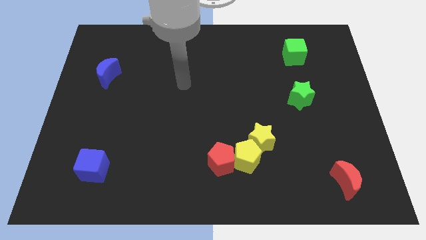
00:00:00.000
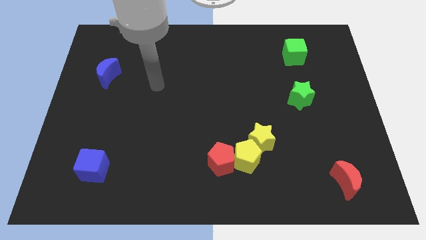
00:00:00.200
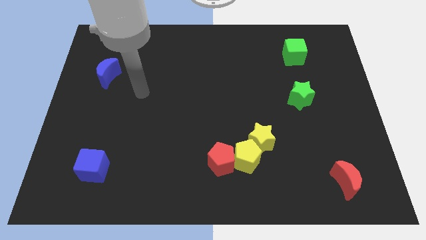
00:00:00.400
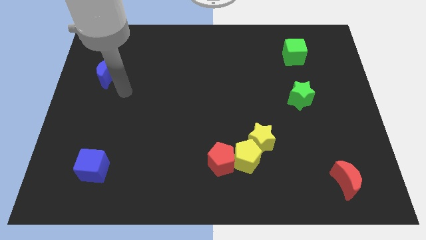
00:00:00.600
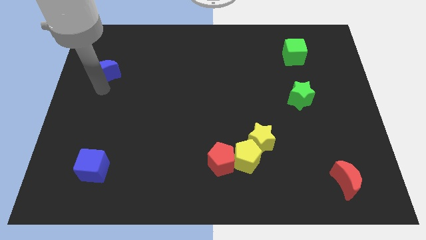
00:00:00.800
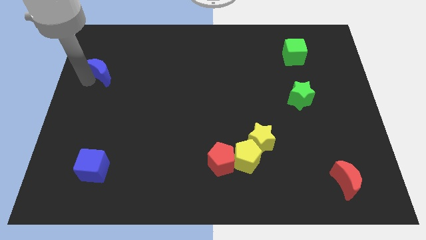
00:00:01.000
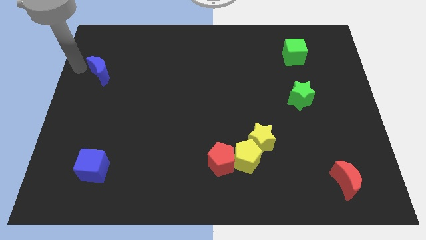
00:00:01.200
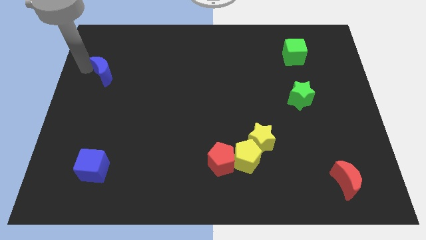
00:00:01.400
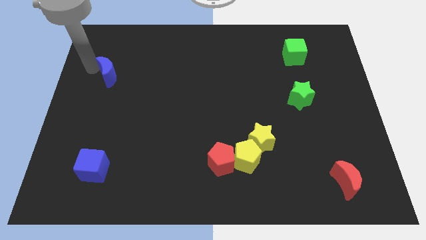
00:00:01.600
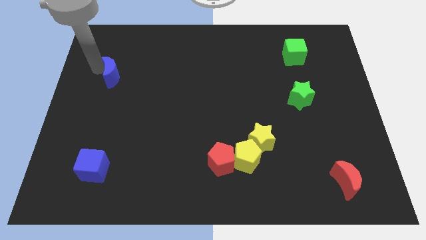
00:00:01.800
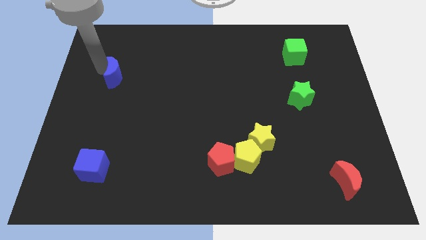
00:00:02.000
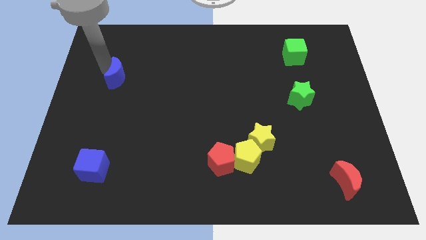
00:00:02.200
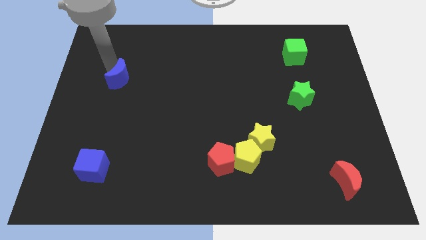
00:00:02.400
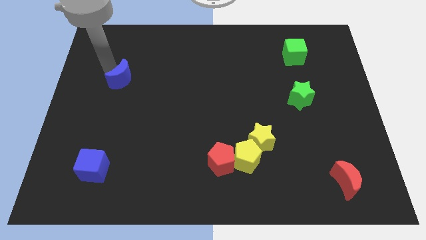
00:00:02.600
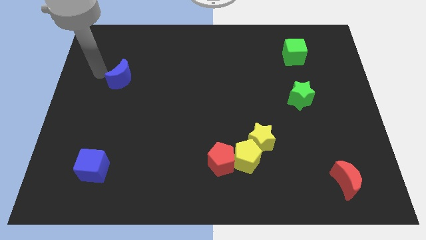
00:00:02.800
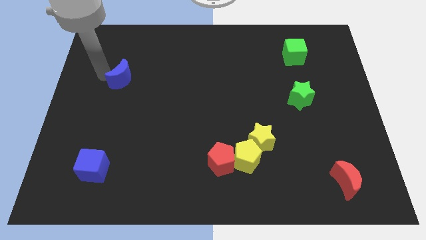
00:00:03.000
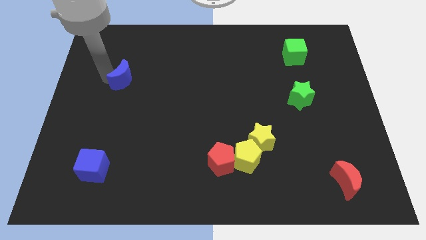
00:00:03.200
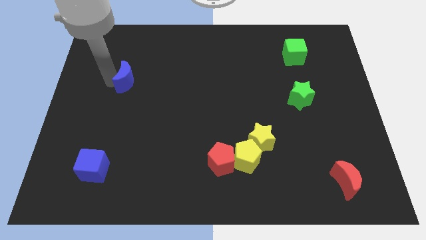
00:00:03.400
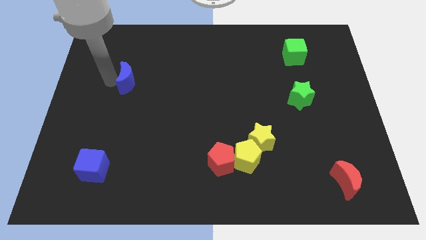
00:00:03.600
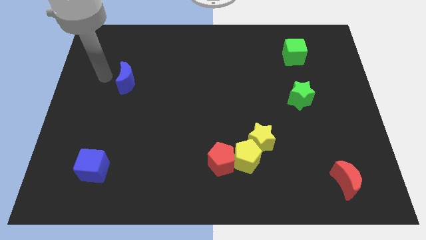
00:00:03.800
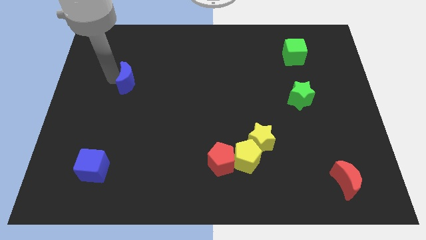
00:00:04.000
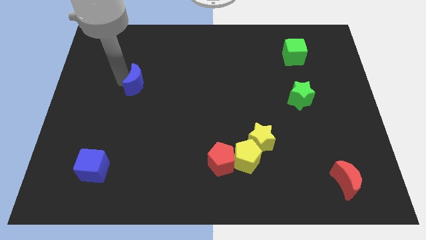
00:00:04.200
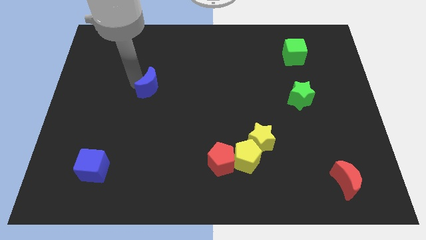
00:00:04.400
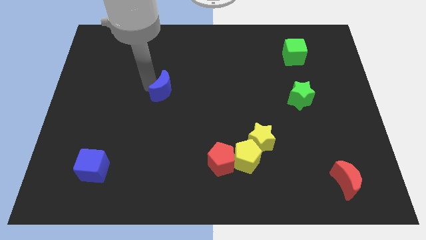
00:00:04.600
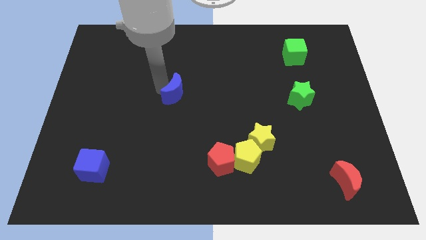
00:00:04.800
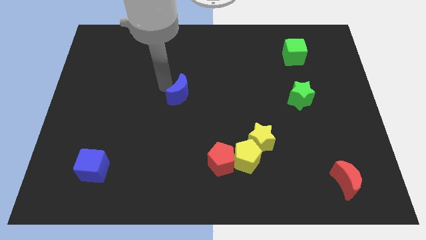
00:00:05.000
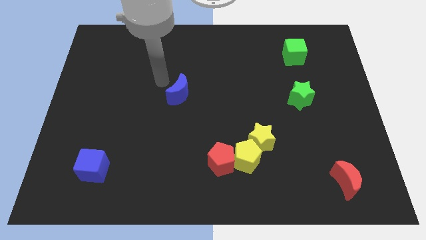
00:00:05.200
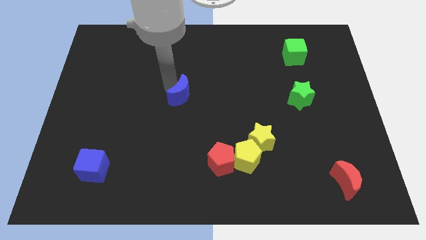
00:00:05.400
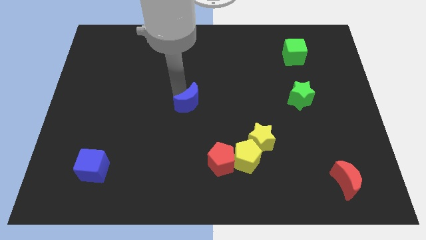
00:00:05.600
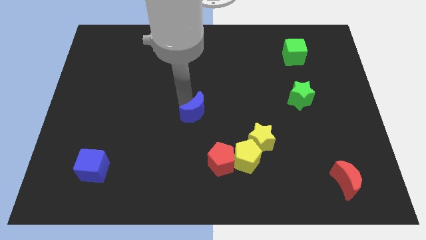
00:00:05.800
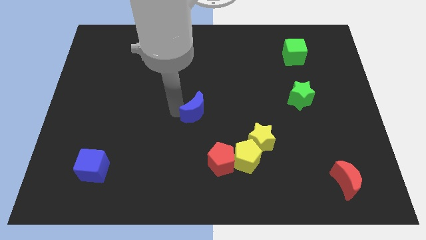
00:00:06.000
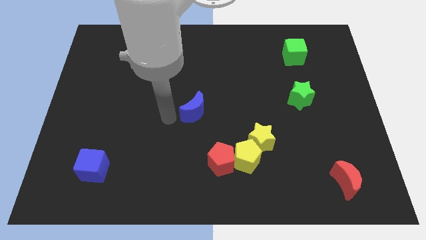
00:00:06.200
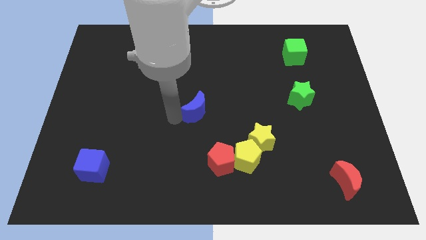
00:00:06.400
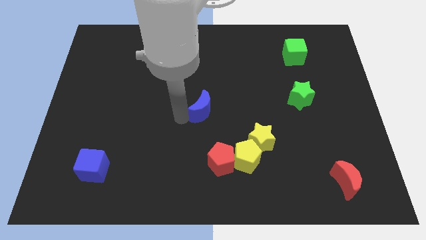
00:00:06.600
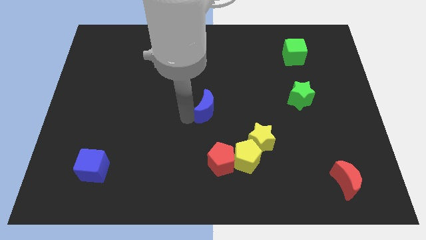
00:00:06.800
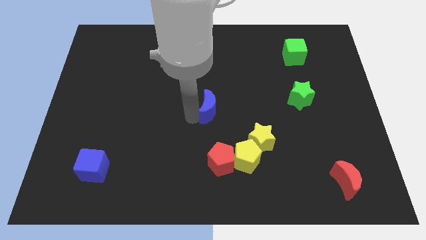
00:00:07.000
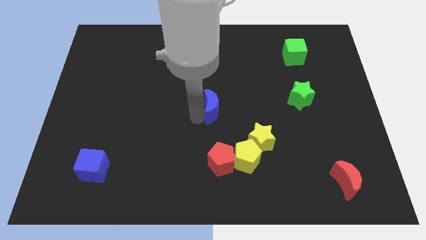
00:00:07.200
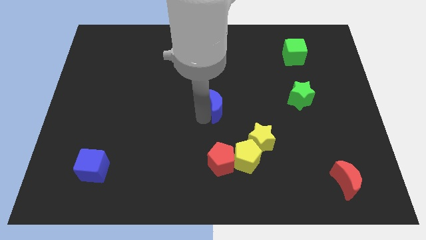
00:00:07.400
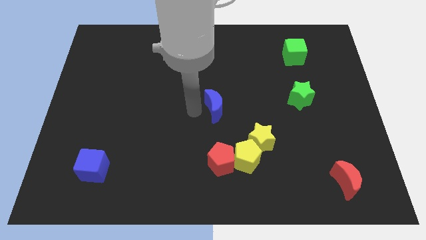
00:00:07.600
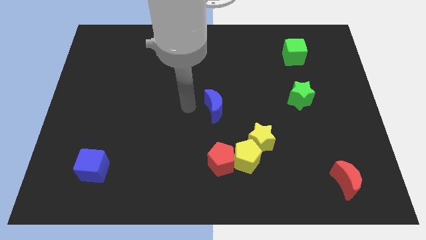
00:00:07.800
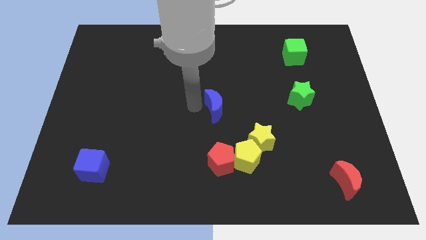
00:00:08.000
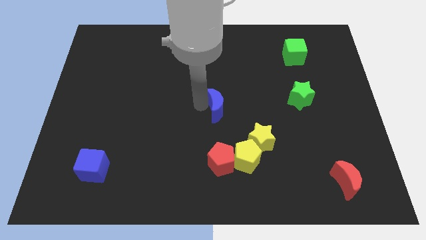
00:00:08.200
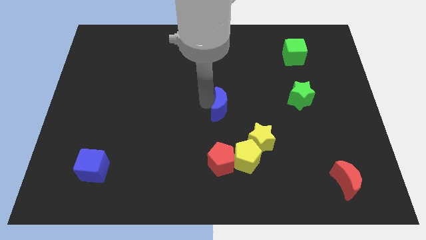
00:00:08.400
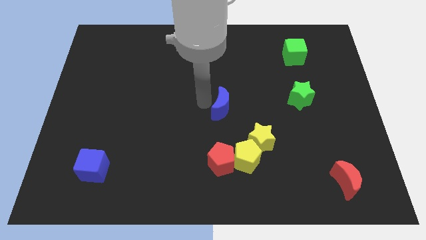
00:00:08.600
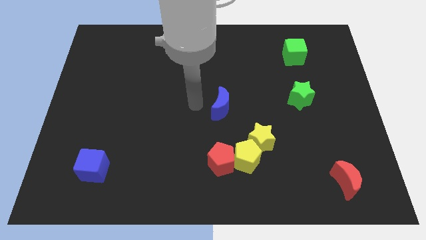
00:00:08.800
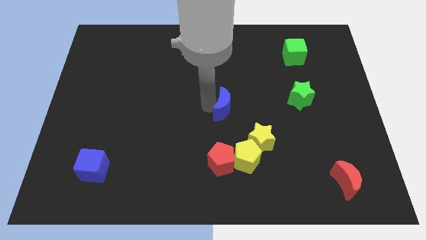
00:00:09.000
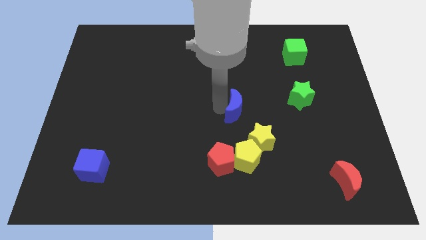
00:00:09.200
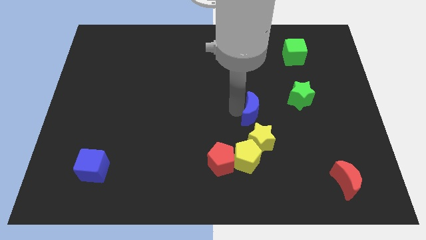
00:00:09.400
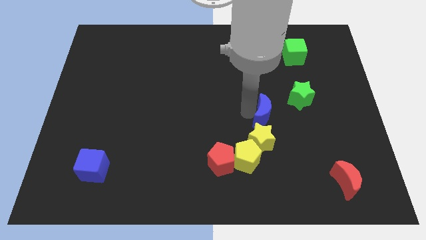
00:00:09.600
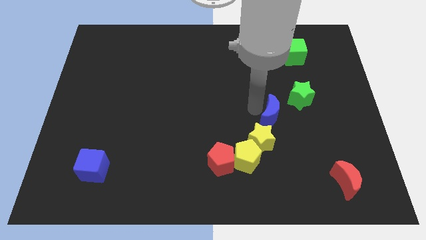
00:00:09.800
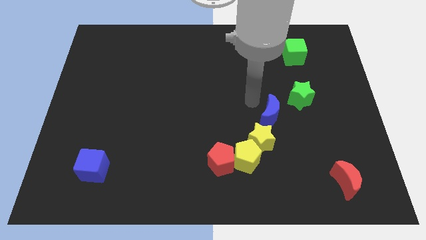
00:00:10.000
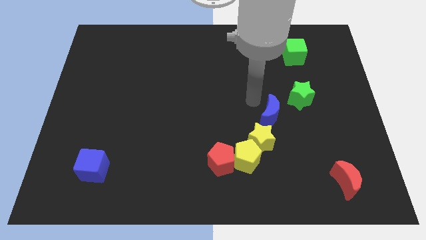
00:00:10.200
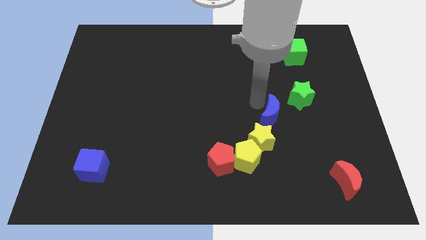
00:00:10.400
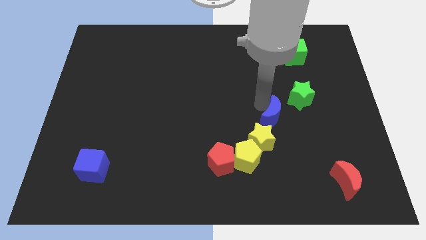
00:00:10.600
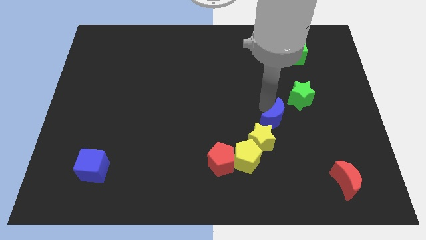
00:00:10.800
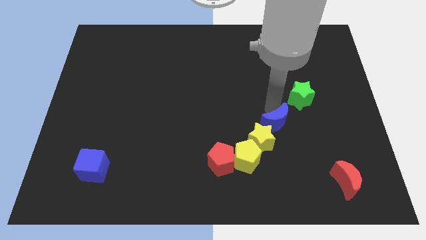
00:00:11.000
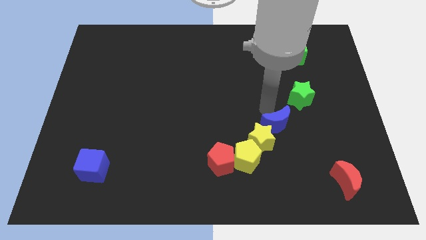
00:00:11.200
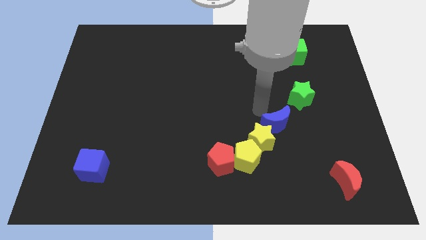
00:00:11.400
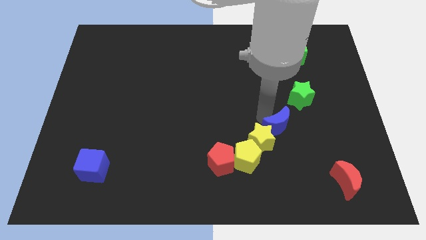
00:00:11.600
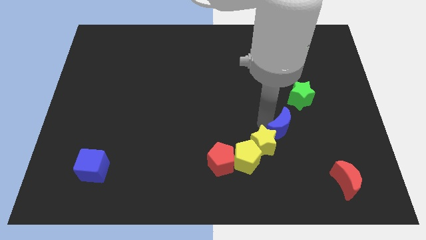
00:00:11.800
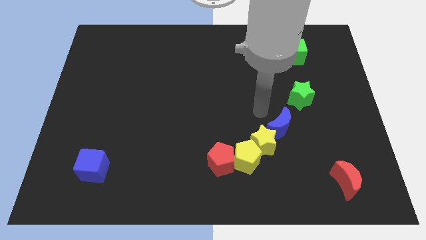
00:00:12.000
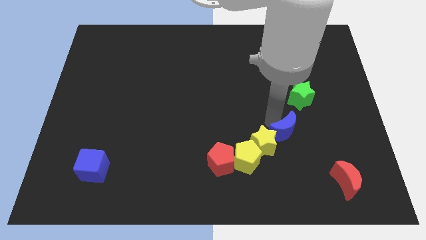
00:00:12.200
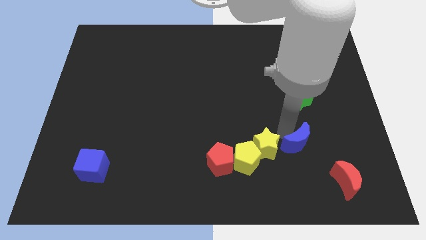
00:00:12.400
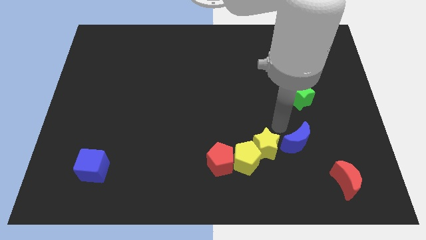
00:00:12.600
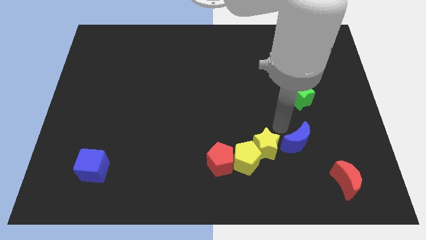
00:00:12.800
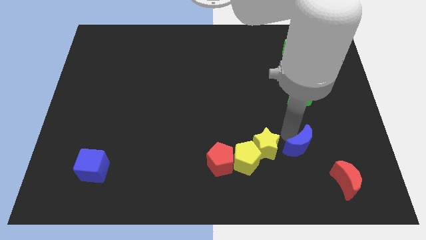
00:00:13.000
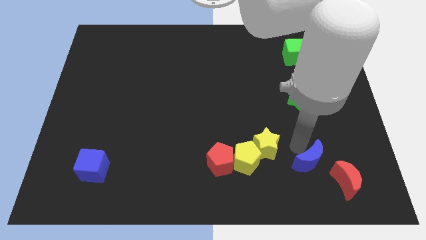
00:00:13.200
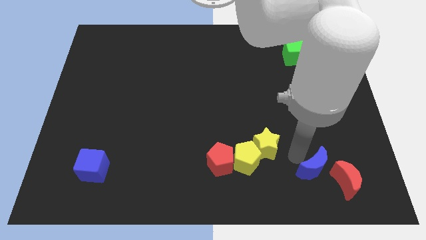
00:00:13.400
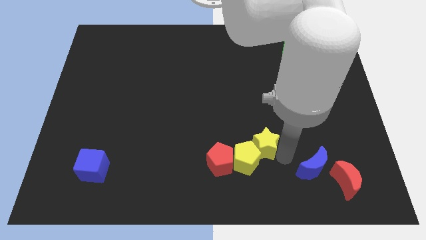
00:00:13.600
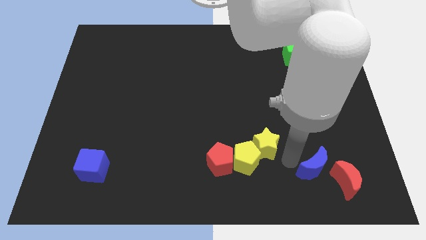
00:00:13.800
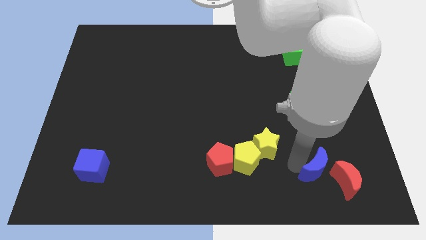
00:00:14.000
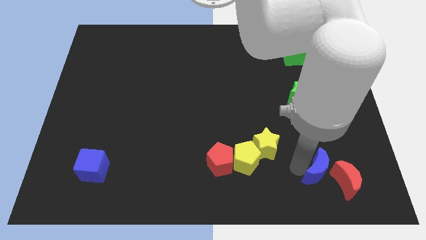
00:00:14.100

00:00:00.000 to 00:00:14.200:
move the blue moon towards the red moon

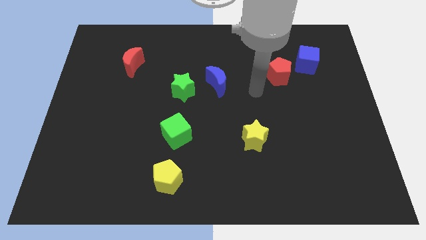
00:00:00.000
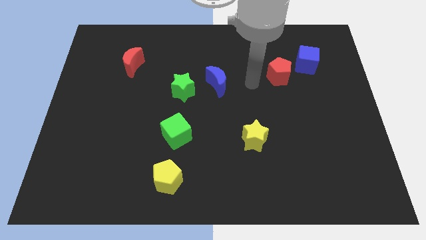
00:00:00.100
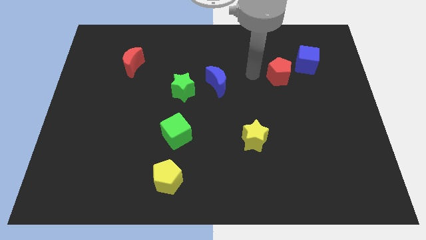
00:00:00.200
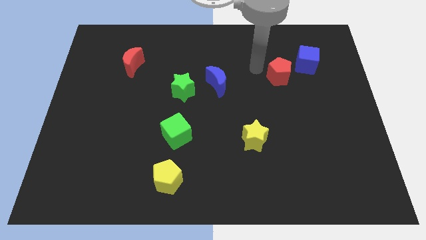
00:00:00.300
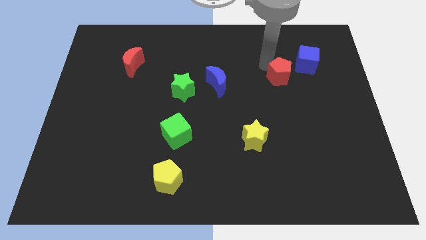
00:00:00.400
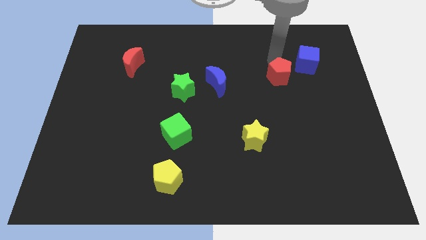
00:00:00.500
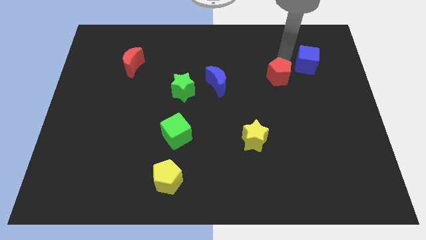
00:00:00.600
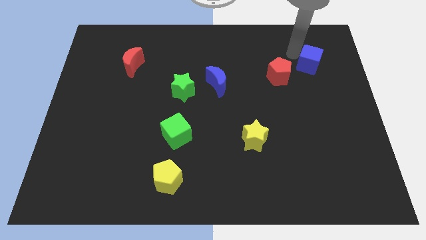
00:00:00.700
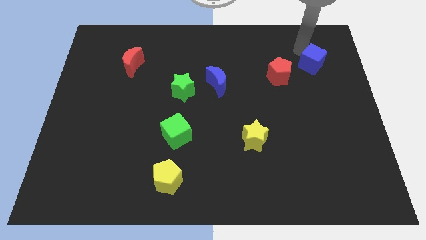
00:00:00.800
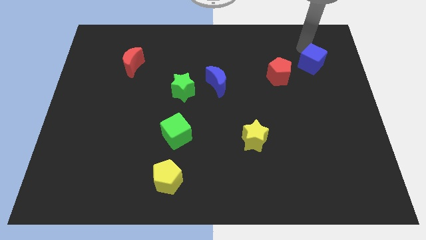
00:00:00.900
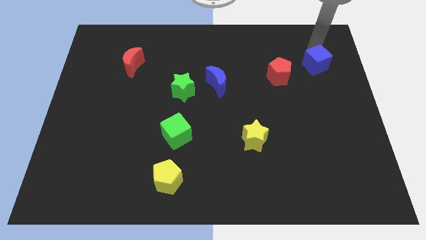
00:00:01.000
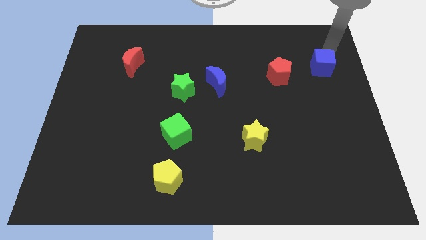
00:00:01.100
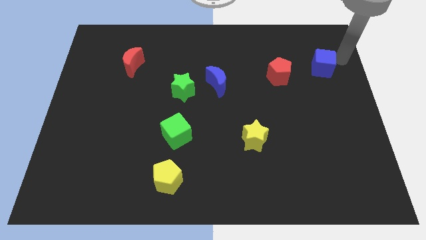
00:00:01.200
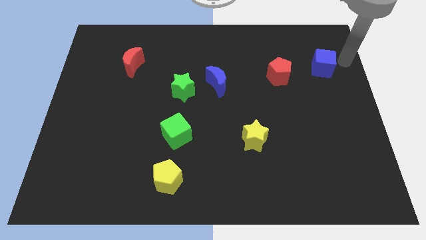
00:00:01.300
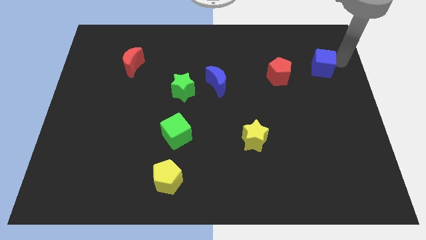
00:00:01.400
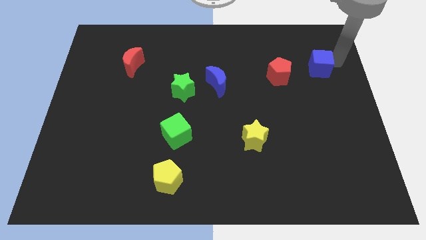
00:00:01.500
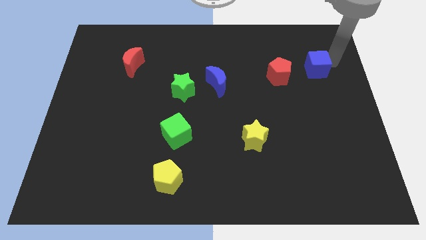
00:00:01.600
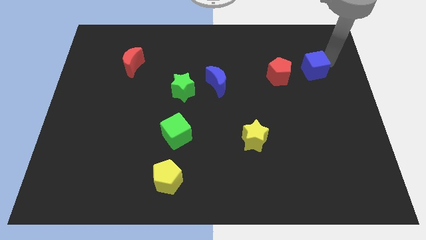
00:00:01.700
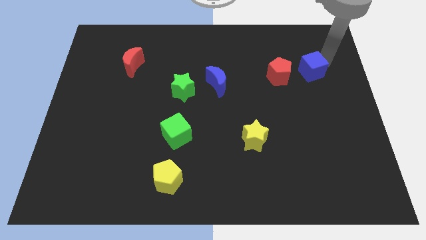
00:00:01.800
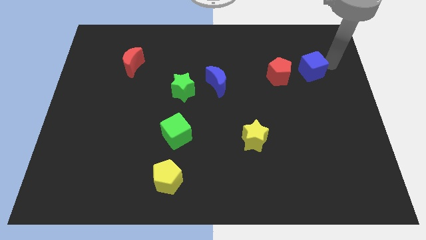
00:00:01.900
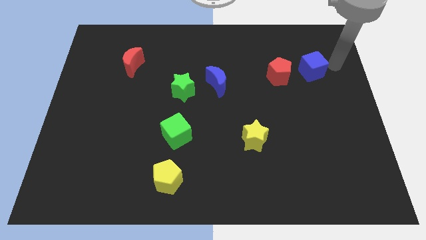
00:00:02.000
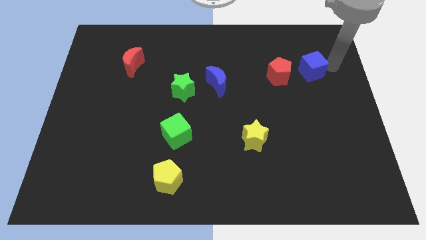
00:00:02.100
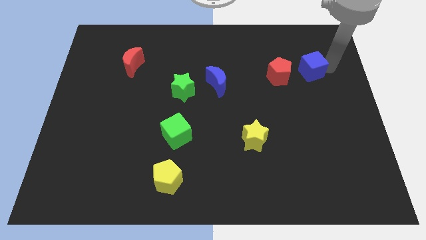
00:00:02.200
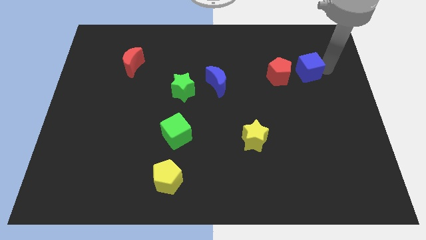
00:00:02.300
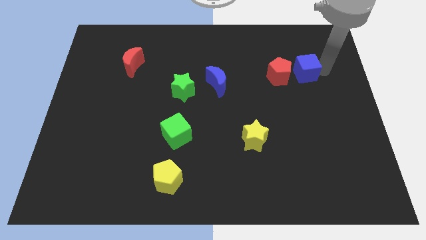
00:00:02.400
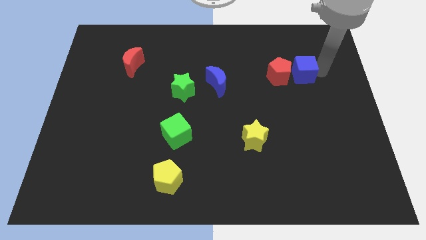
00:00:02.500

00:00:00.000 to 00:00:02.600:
put the blue cube to the red pentagon
